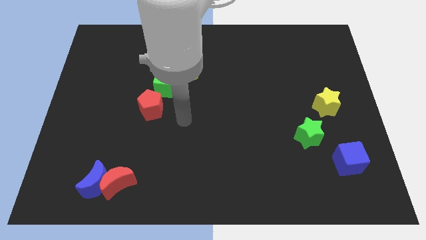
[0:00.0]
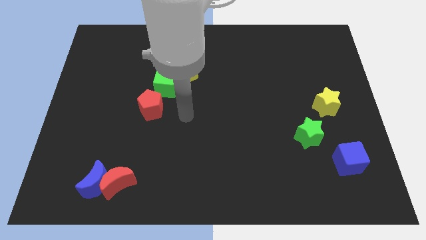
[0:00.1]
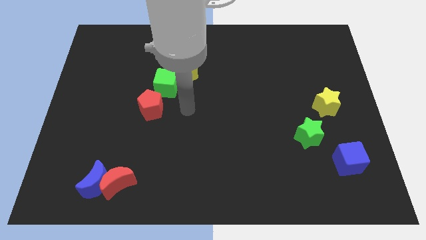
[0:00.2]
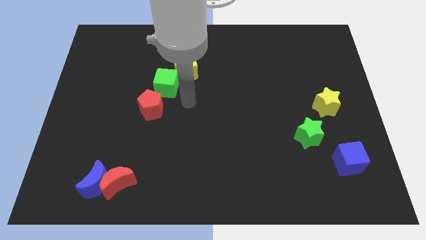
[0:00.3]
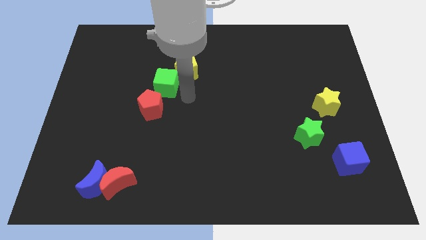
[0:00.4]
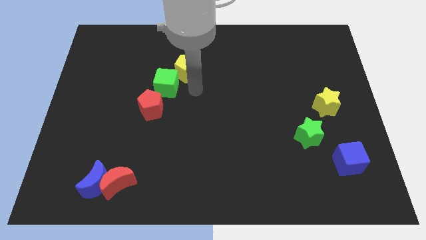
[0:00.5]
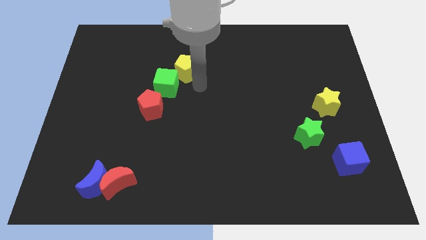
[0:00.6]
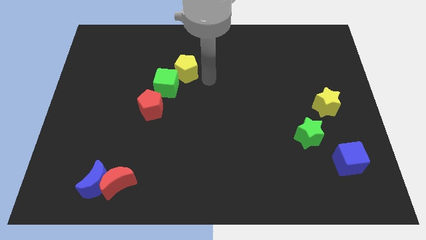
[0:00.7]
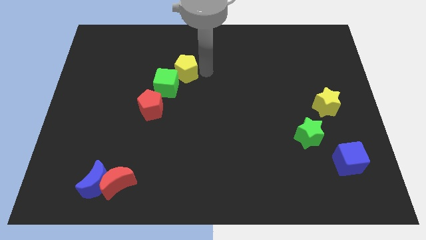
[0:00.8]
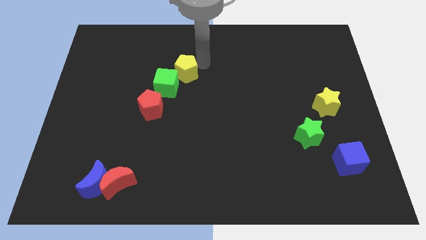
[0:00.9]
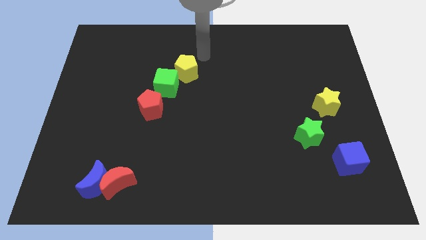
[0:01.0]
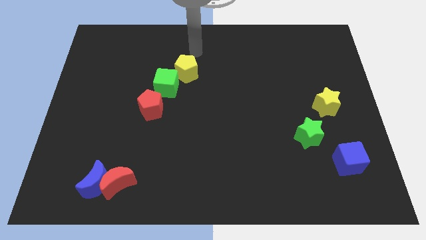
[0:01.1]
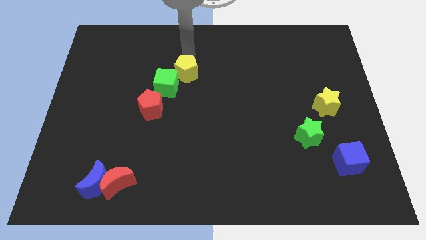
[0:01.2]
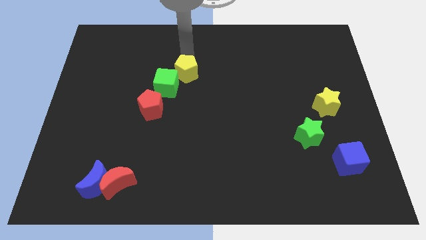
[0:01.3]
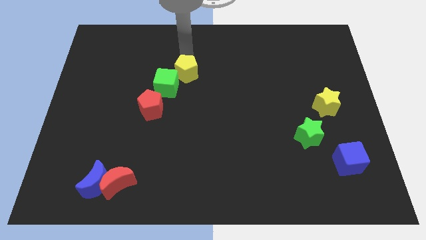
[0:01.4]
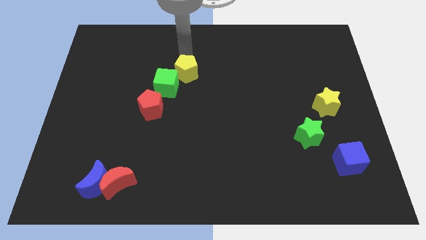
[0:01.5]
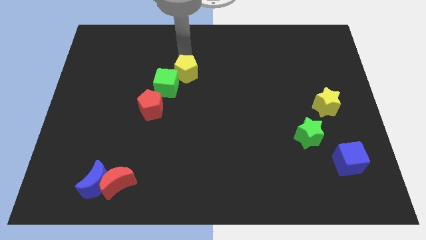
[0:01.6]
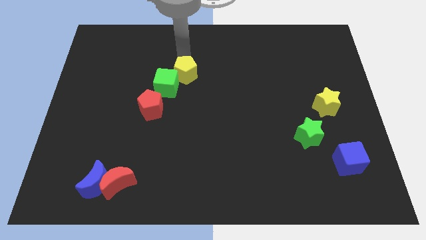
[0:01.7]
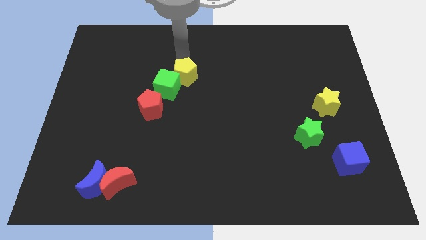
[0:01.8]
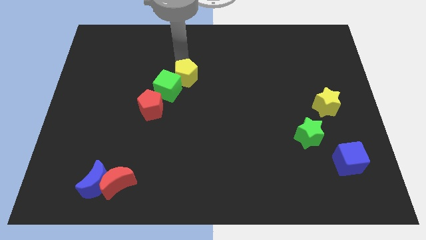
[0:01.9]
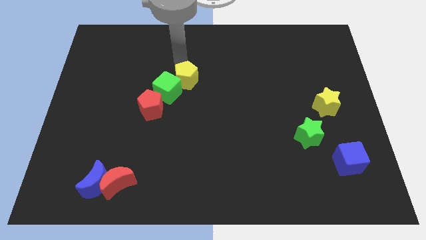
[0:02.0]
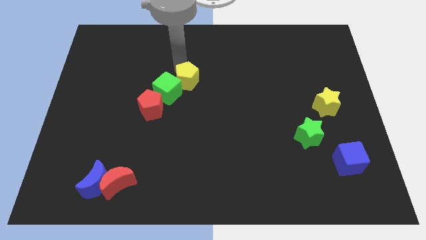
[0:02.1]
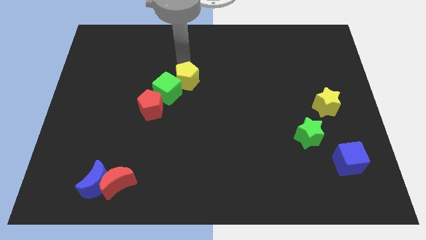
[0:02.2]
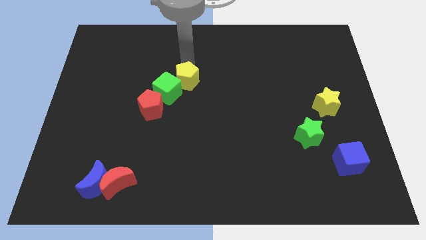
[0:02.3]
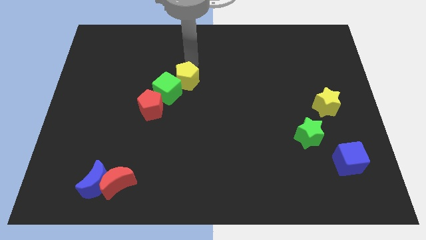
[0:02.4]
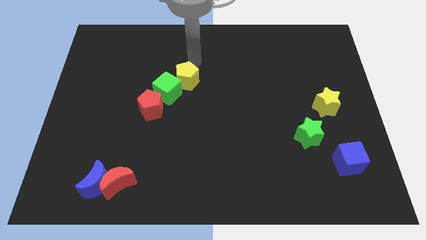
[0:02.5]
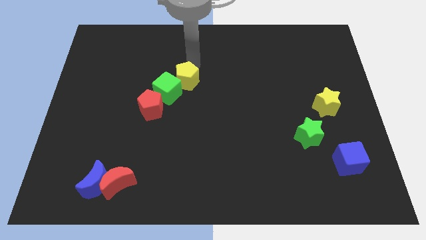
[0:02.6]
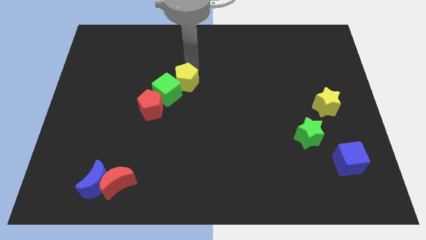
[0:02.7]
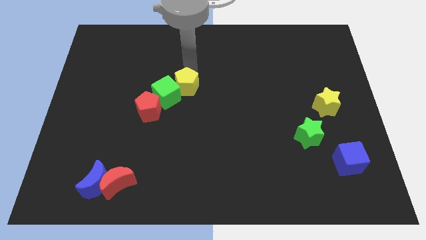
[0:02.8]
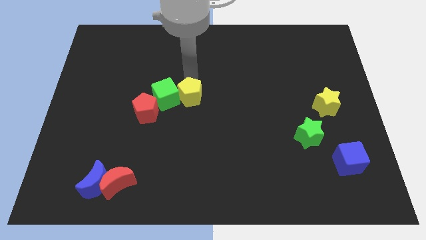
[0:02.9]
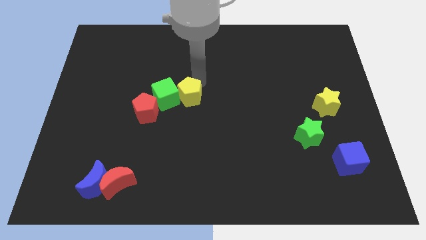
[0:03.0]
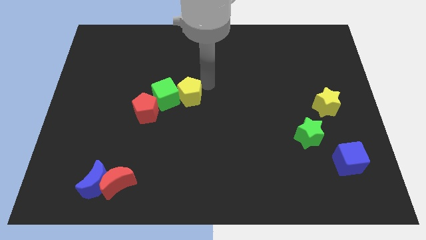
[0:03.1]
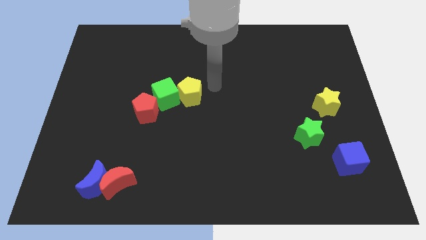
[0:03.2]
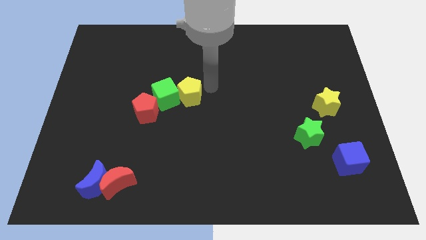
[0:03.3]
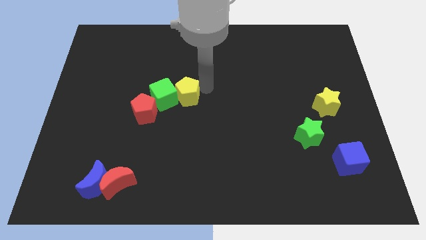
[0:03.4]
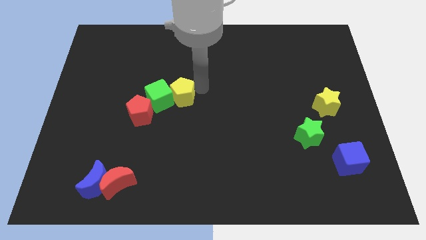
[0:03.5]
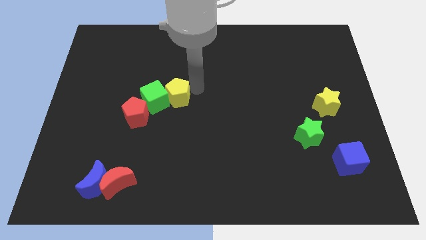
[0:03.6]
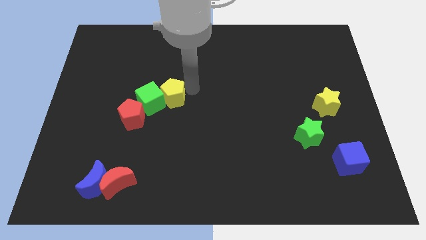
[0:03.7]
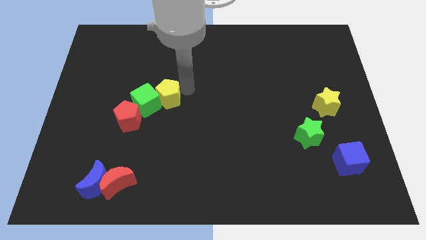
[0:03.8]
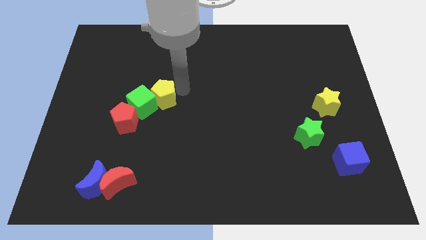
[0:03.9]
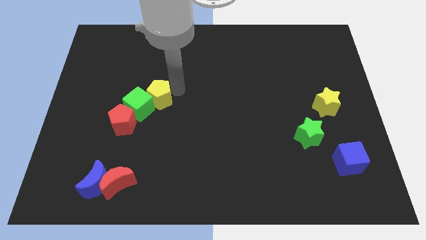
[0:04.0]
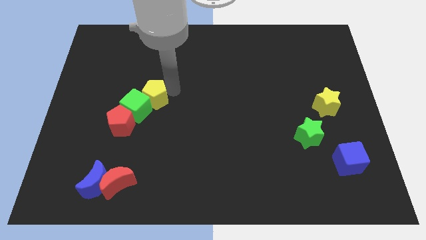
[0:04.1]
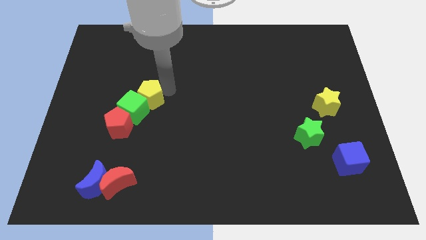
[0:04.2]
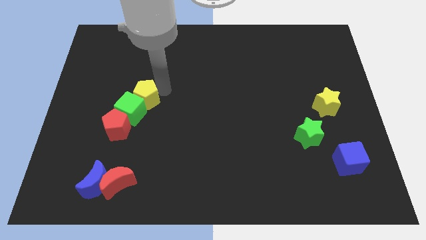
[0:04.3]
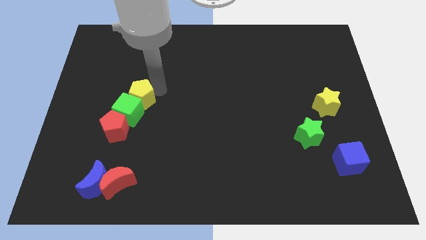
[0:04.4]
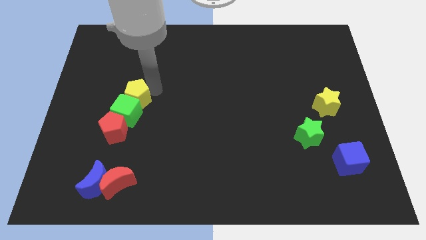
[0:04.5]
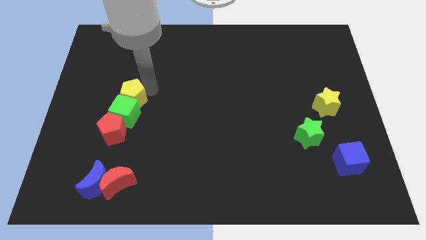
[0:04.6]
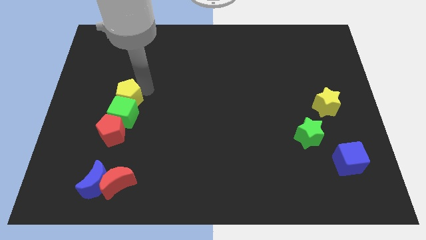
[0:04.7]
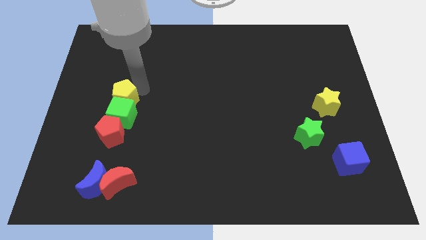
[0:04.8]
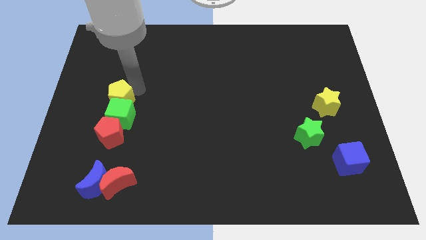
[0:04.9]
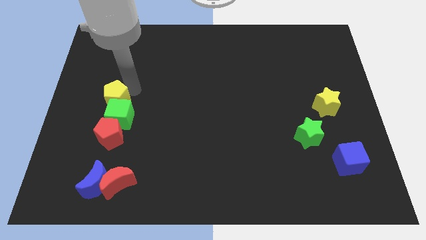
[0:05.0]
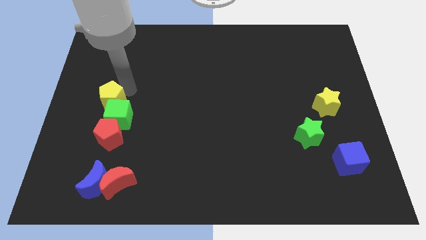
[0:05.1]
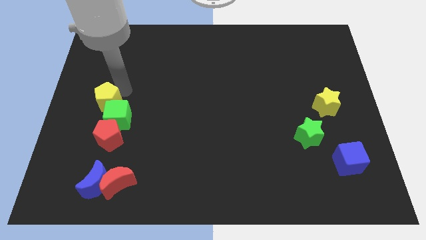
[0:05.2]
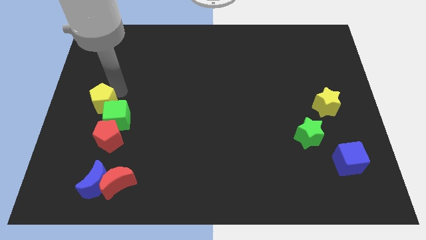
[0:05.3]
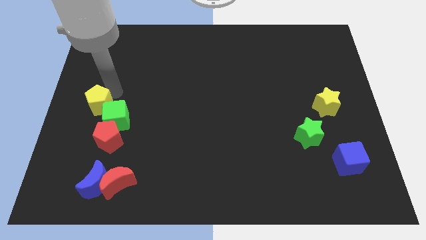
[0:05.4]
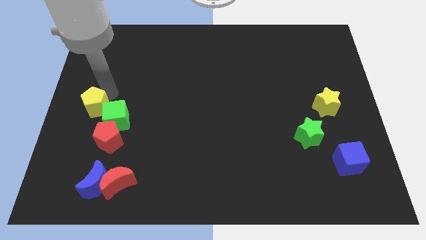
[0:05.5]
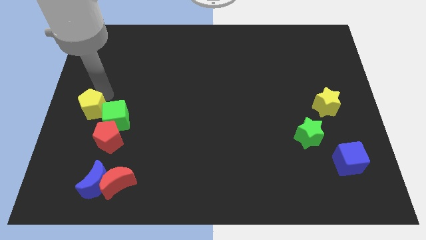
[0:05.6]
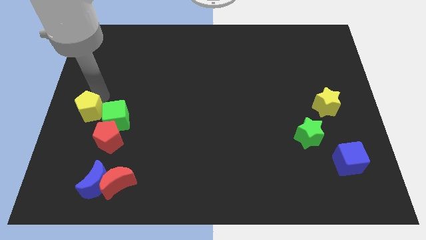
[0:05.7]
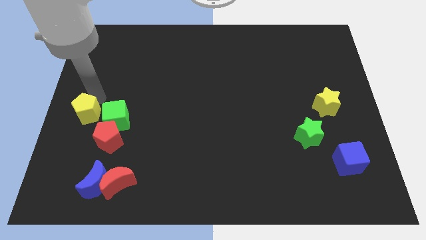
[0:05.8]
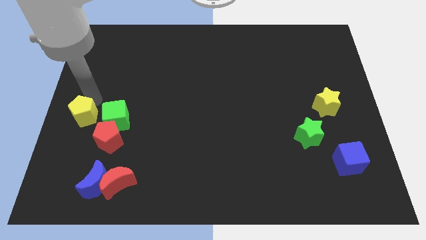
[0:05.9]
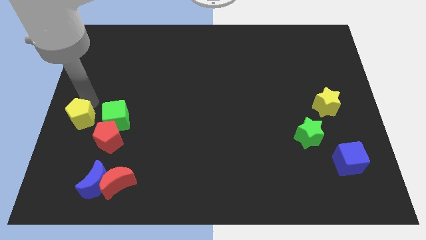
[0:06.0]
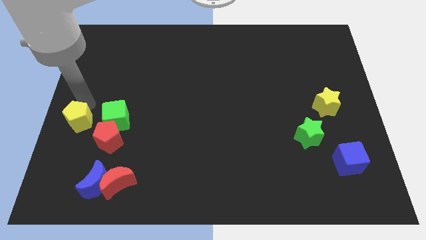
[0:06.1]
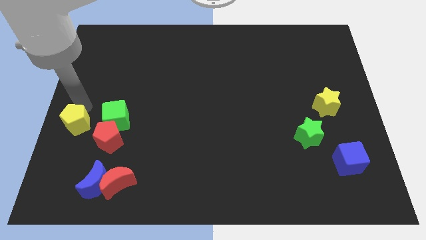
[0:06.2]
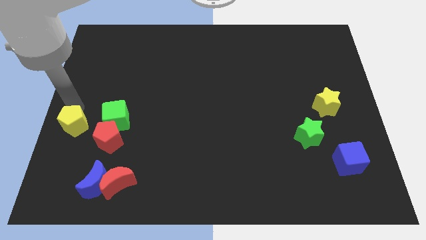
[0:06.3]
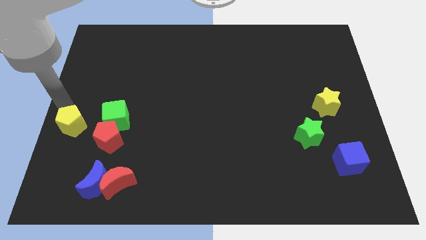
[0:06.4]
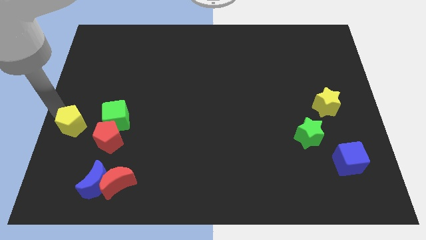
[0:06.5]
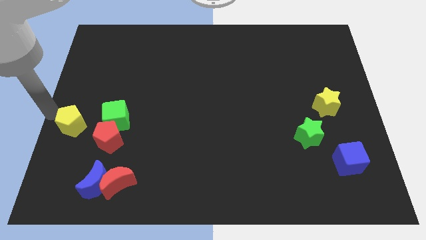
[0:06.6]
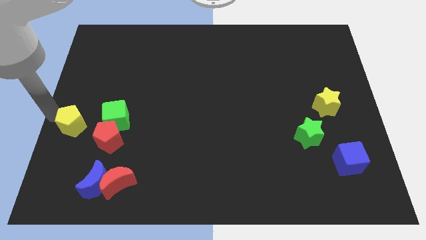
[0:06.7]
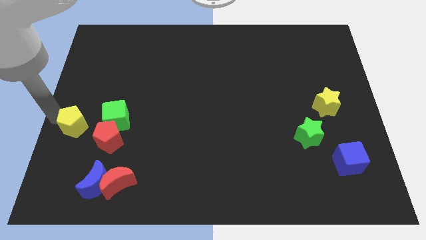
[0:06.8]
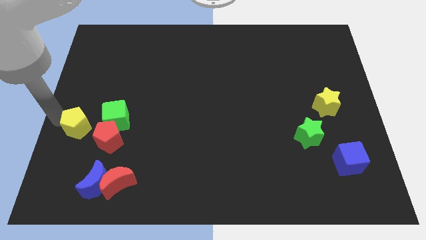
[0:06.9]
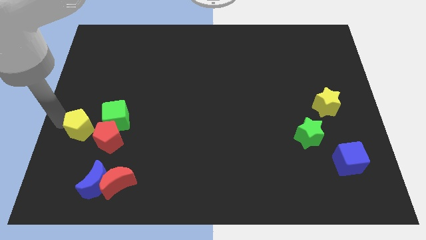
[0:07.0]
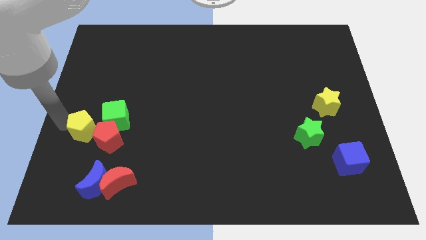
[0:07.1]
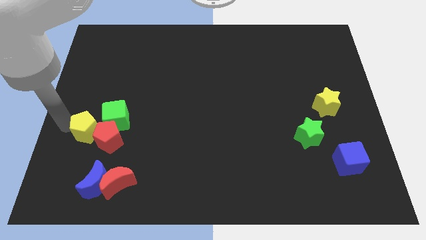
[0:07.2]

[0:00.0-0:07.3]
slide the yellow pentagon to the red pentagon

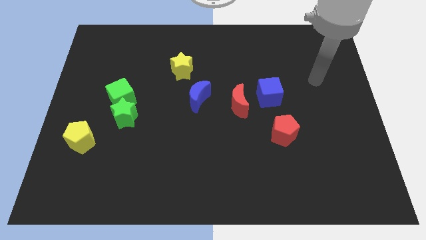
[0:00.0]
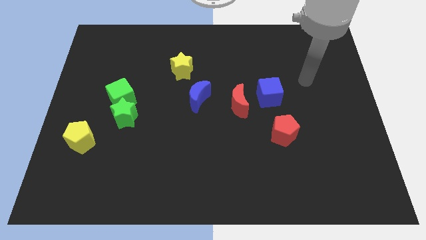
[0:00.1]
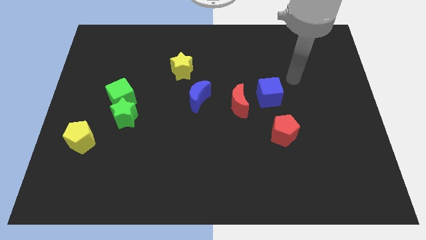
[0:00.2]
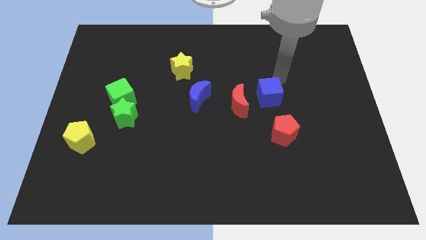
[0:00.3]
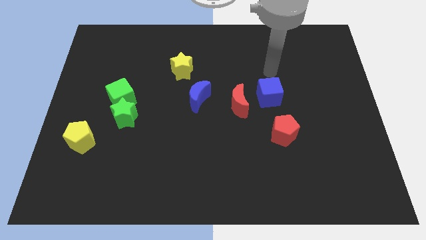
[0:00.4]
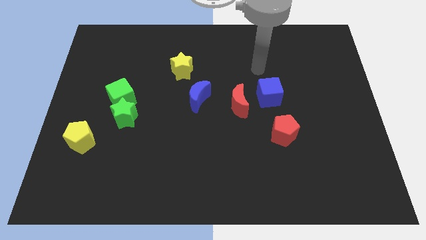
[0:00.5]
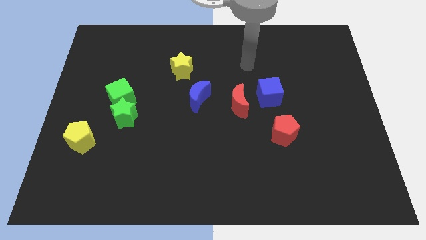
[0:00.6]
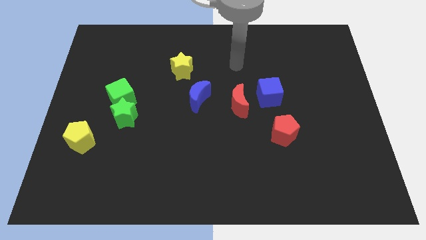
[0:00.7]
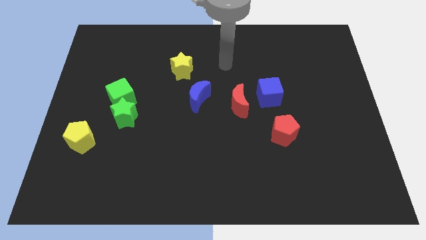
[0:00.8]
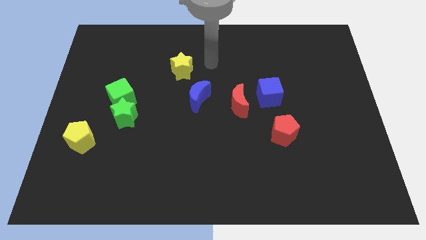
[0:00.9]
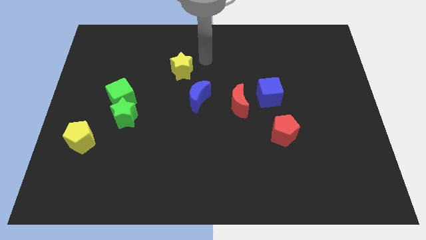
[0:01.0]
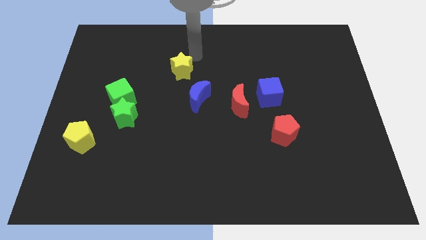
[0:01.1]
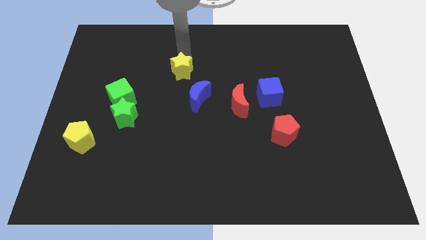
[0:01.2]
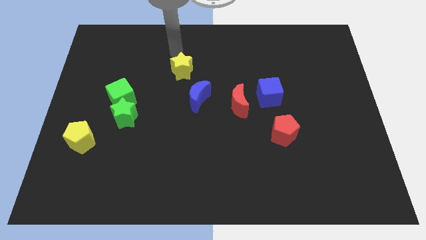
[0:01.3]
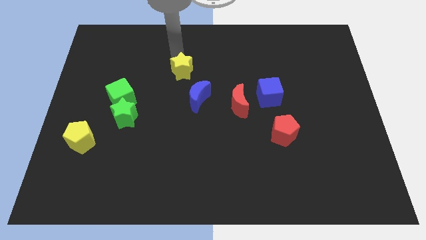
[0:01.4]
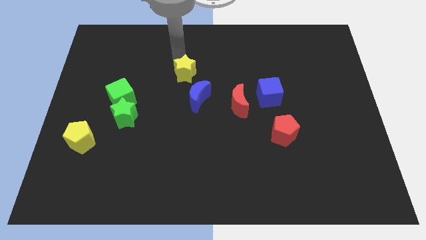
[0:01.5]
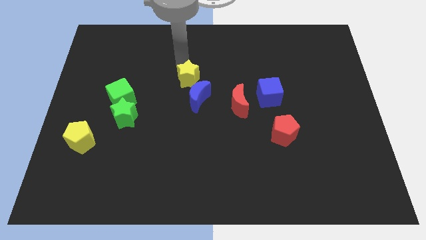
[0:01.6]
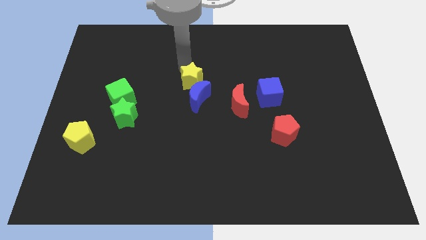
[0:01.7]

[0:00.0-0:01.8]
move the yellow star towards the blue moon
